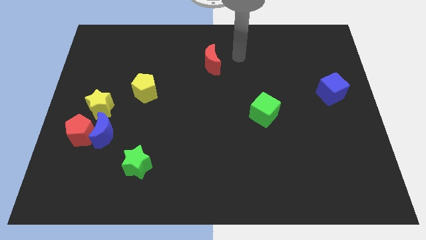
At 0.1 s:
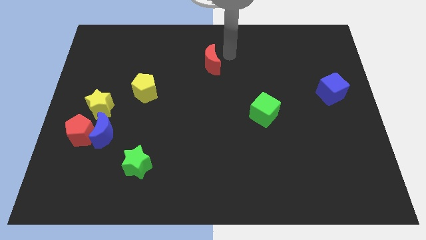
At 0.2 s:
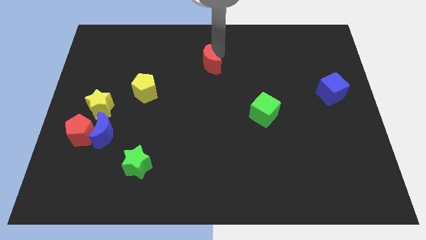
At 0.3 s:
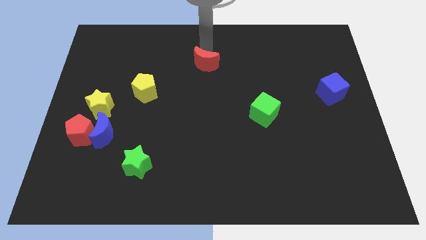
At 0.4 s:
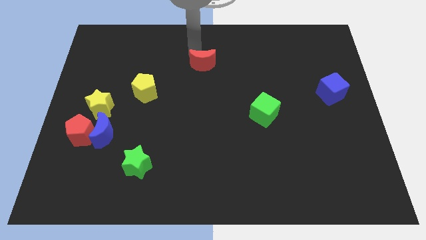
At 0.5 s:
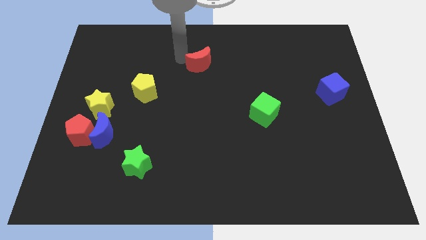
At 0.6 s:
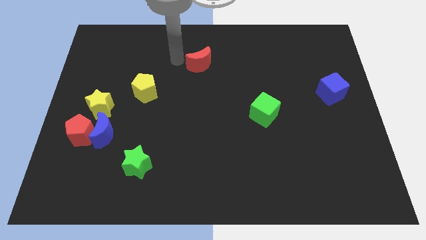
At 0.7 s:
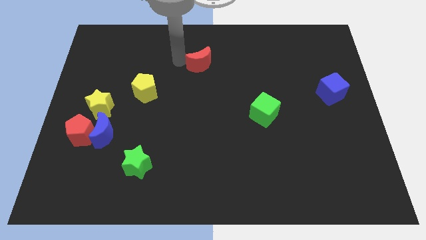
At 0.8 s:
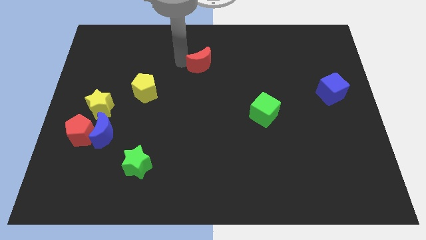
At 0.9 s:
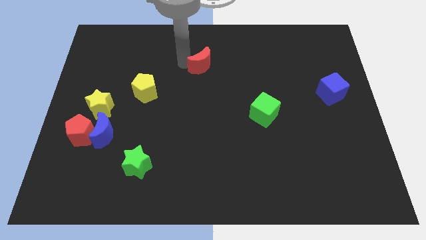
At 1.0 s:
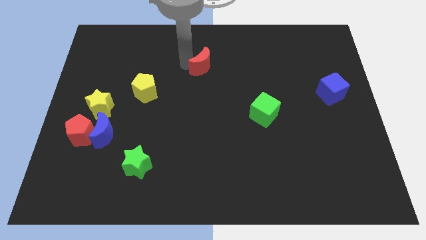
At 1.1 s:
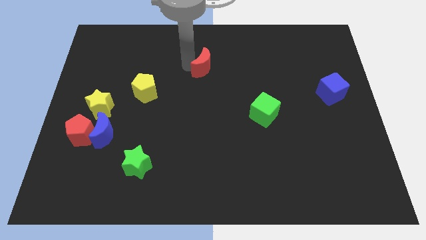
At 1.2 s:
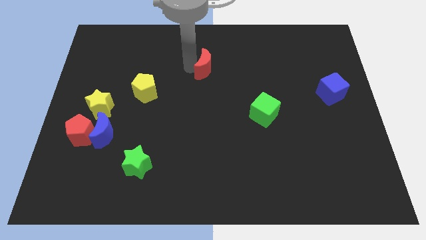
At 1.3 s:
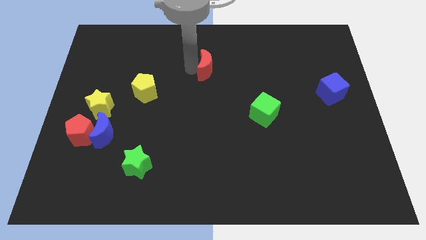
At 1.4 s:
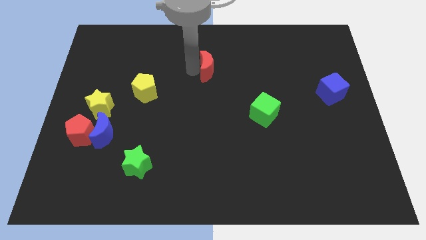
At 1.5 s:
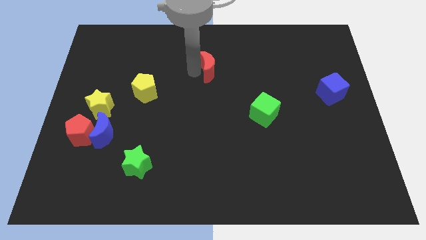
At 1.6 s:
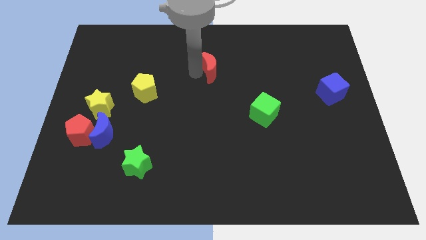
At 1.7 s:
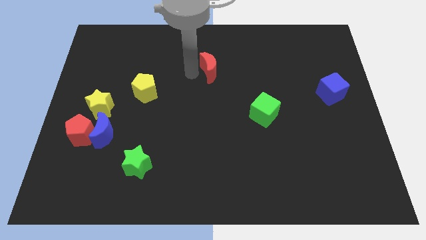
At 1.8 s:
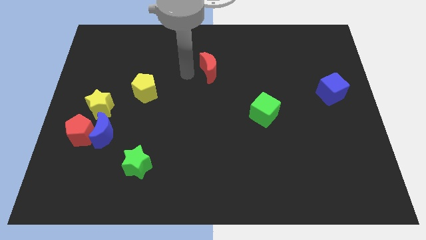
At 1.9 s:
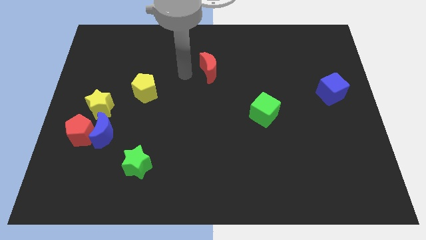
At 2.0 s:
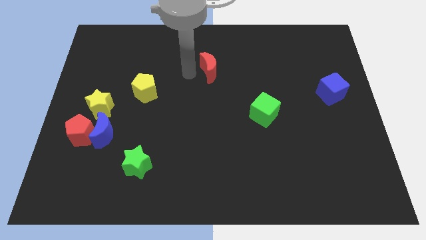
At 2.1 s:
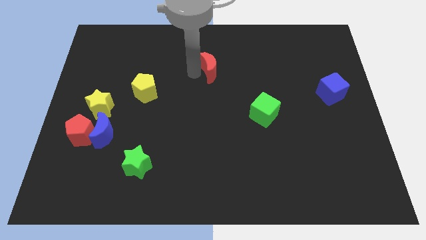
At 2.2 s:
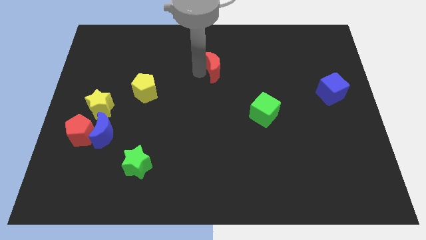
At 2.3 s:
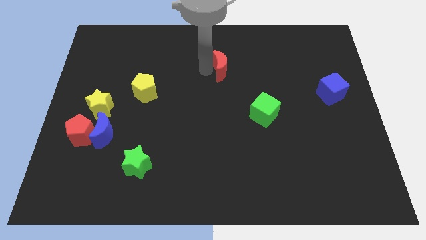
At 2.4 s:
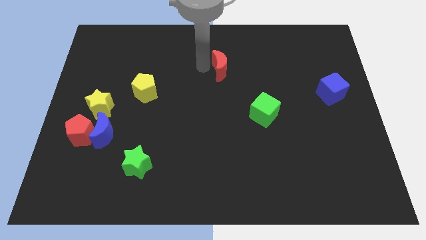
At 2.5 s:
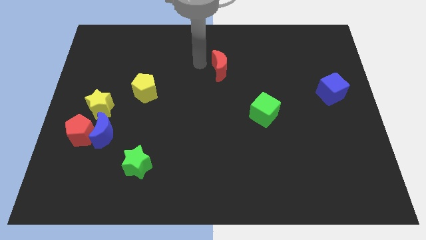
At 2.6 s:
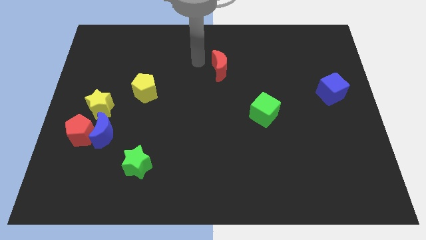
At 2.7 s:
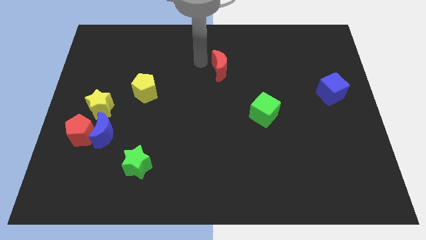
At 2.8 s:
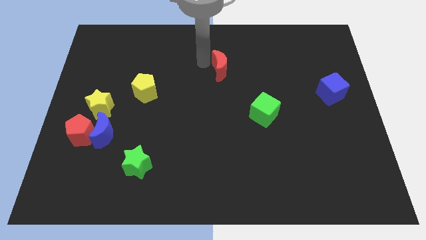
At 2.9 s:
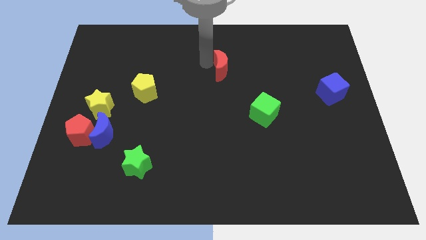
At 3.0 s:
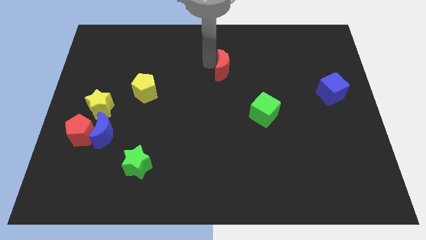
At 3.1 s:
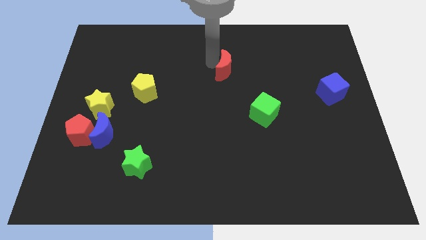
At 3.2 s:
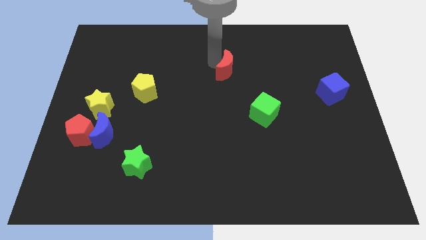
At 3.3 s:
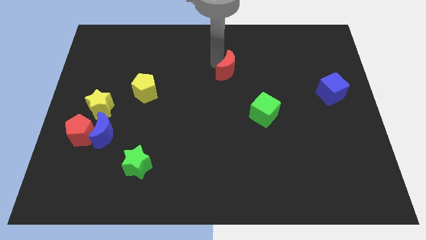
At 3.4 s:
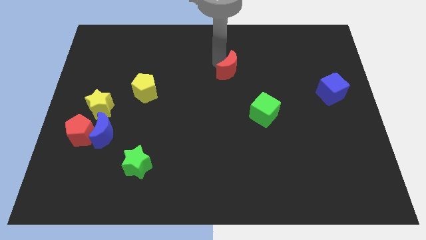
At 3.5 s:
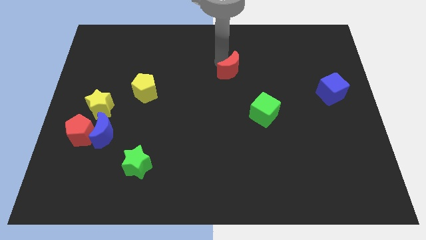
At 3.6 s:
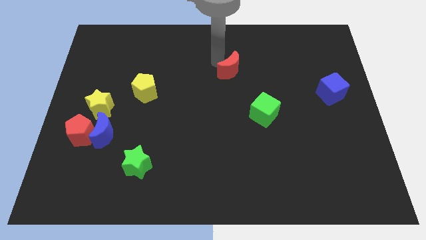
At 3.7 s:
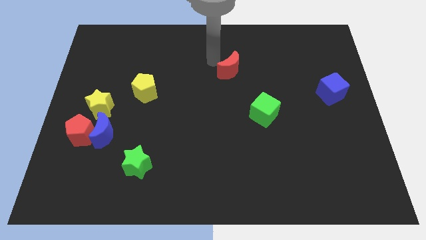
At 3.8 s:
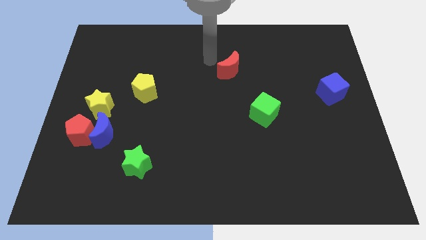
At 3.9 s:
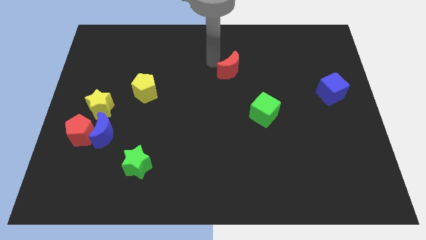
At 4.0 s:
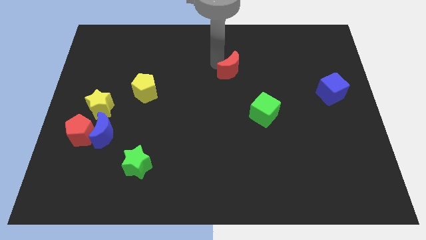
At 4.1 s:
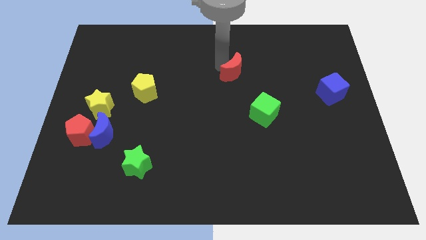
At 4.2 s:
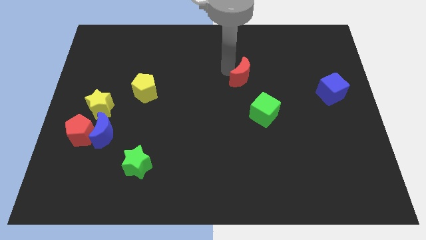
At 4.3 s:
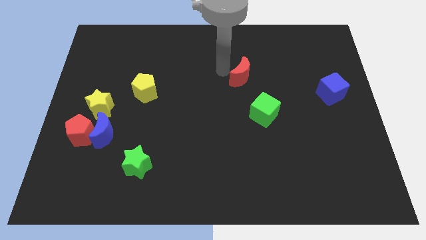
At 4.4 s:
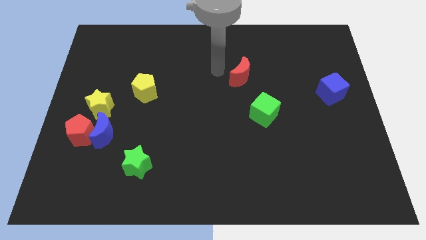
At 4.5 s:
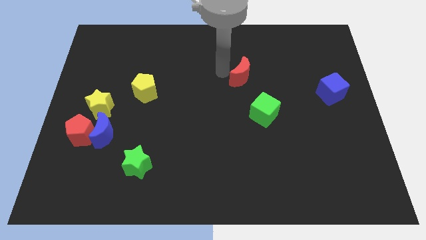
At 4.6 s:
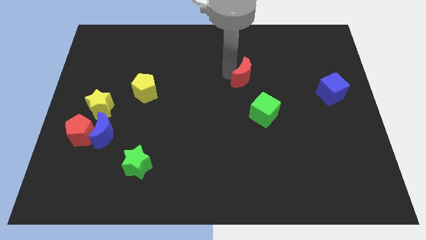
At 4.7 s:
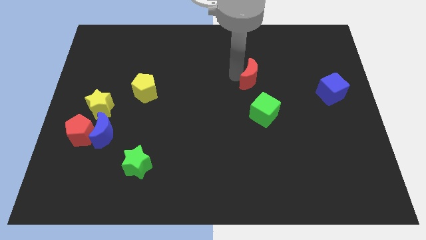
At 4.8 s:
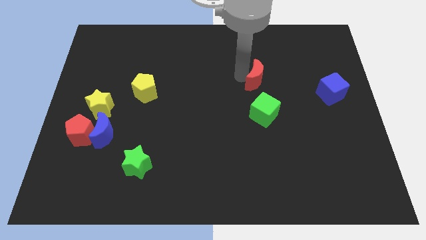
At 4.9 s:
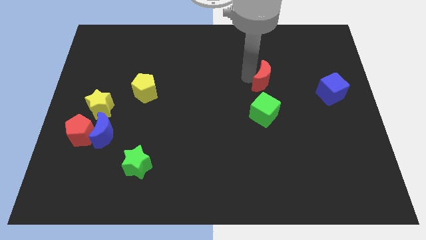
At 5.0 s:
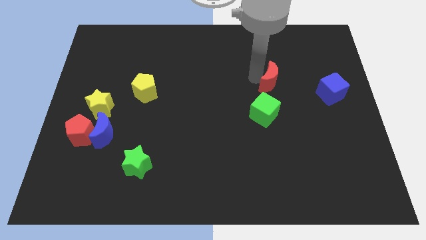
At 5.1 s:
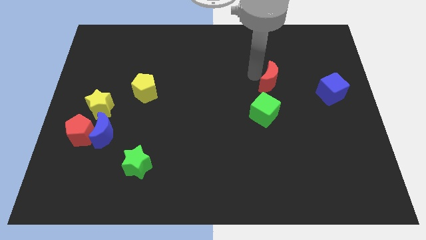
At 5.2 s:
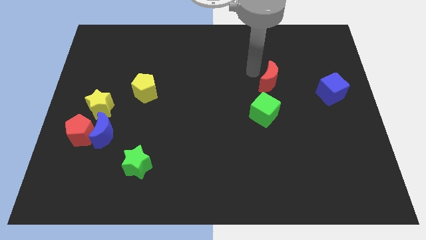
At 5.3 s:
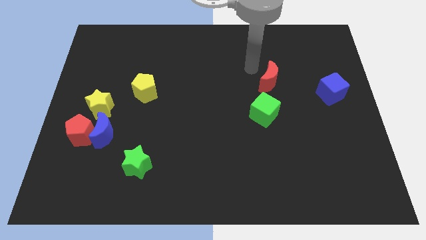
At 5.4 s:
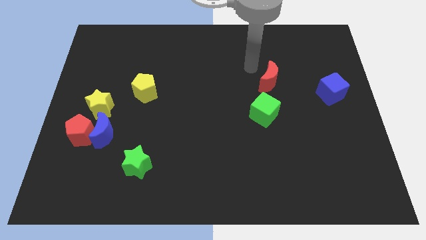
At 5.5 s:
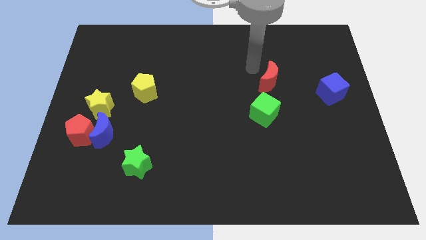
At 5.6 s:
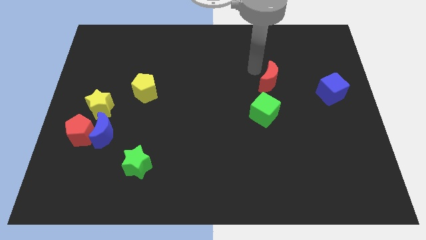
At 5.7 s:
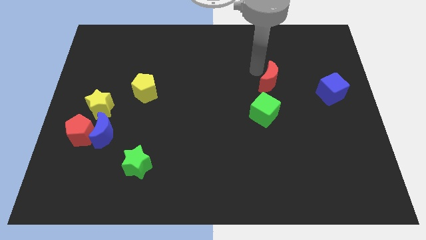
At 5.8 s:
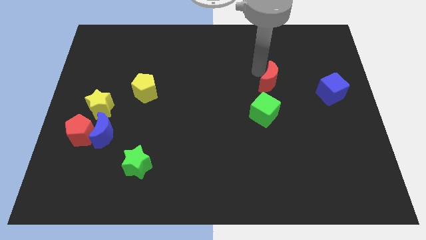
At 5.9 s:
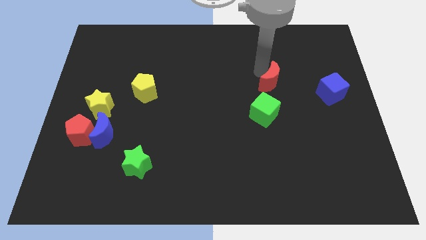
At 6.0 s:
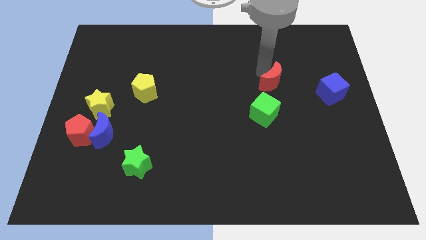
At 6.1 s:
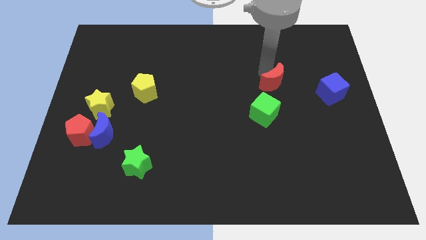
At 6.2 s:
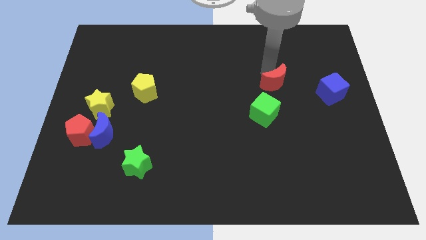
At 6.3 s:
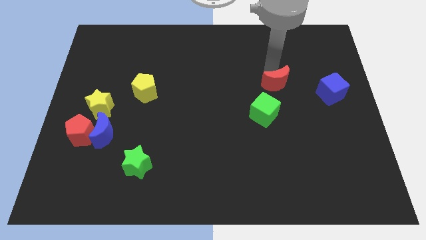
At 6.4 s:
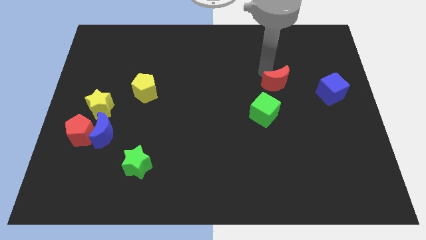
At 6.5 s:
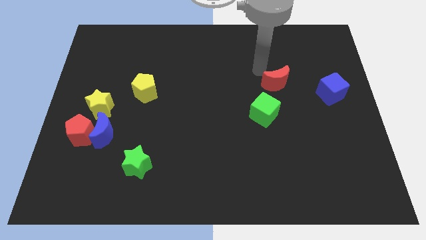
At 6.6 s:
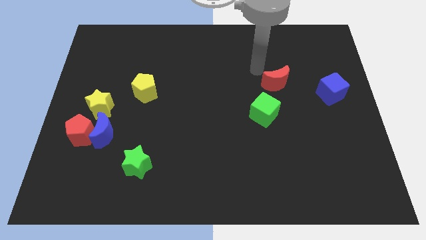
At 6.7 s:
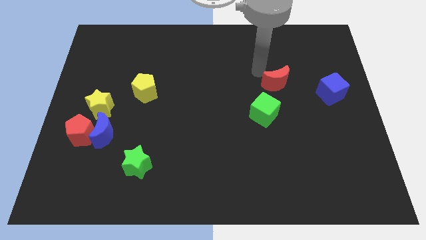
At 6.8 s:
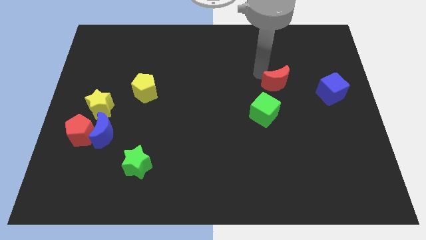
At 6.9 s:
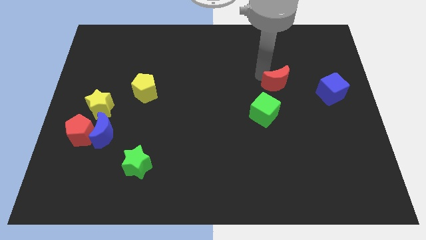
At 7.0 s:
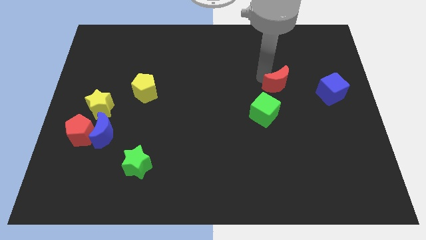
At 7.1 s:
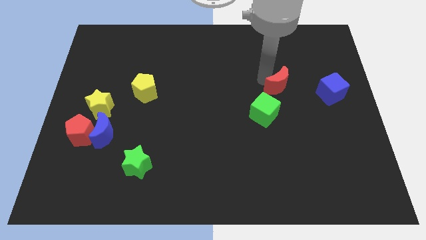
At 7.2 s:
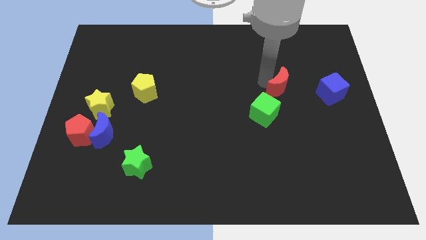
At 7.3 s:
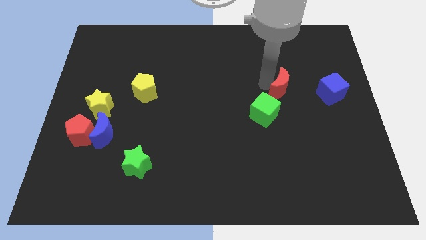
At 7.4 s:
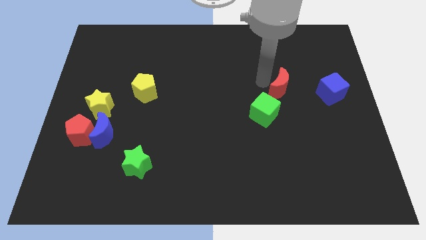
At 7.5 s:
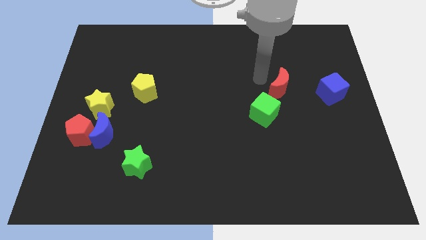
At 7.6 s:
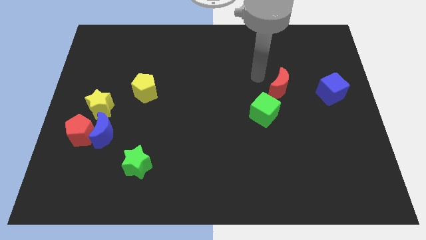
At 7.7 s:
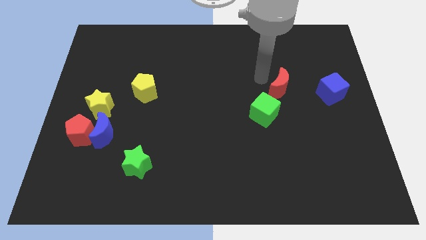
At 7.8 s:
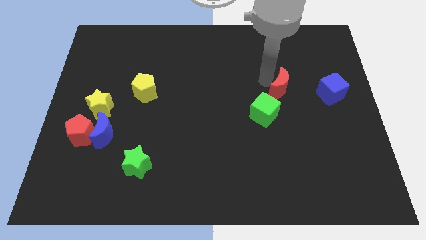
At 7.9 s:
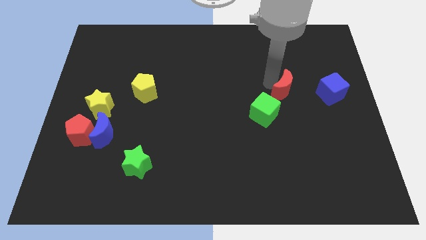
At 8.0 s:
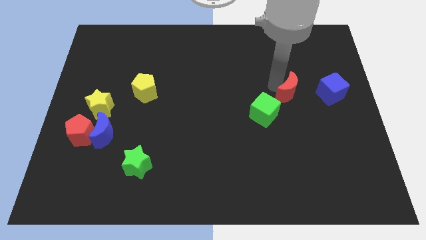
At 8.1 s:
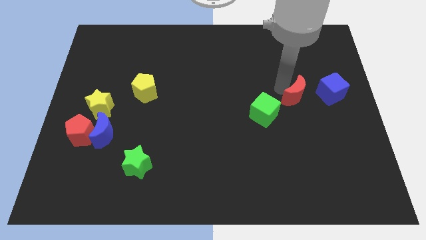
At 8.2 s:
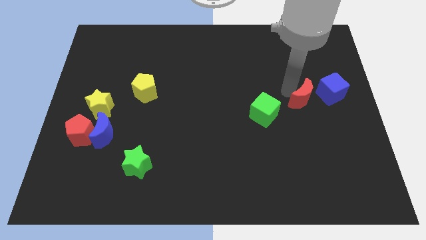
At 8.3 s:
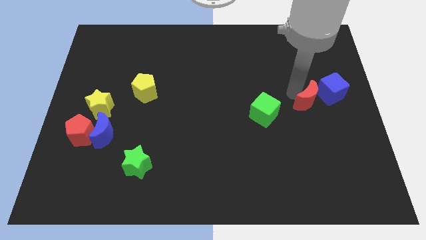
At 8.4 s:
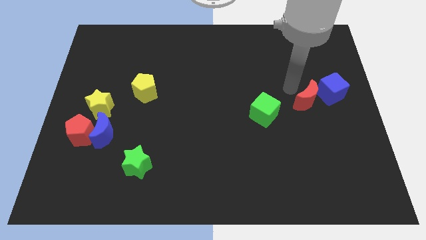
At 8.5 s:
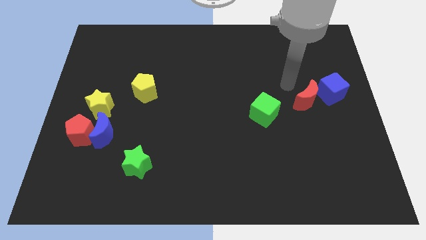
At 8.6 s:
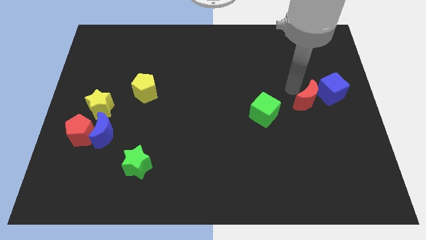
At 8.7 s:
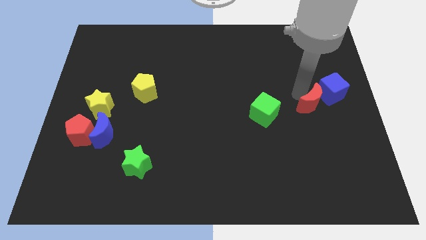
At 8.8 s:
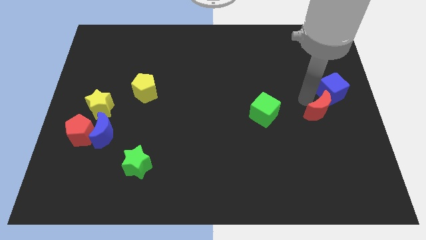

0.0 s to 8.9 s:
slide the red moon to the bottom side of the blue cube
